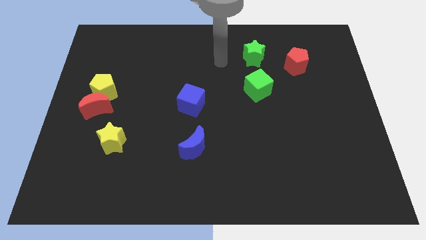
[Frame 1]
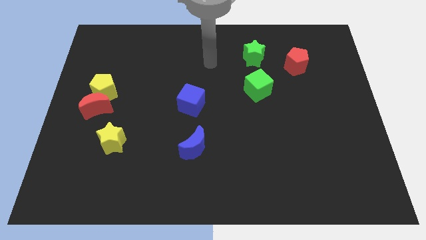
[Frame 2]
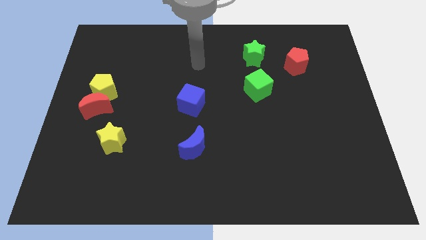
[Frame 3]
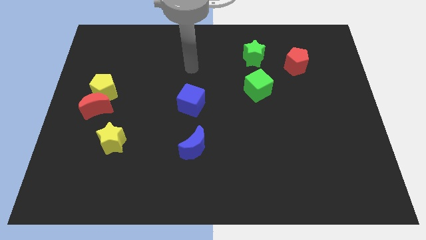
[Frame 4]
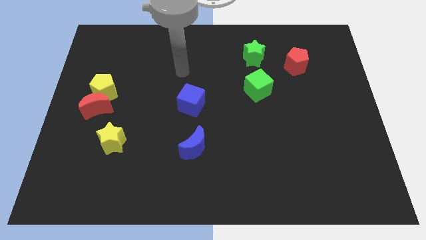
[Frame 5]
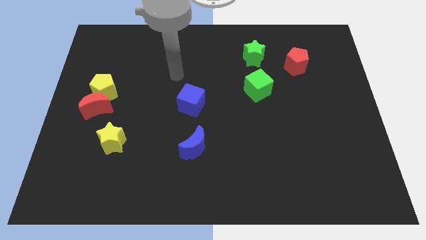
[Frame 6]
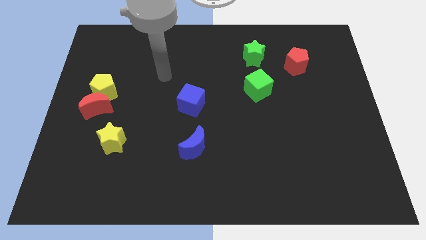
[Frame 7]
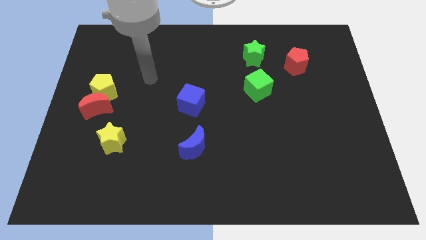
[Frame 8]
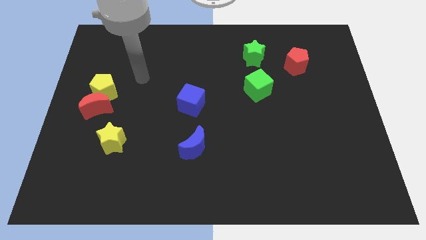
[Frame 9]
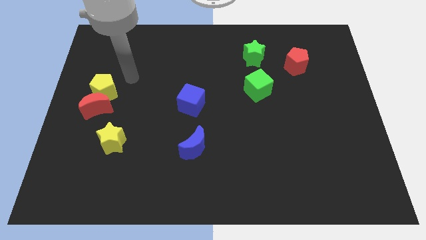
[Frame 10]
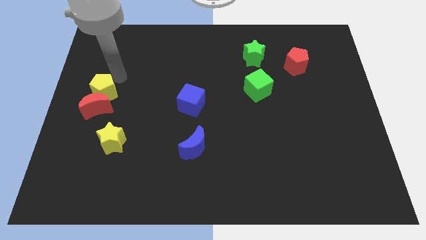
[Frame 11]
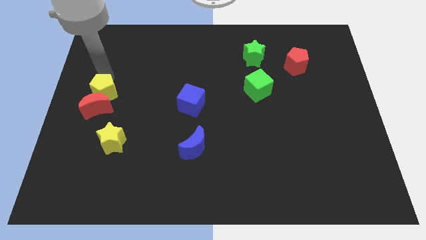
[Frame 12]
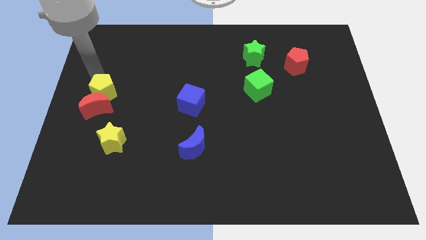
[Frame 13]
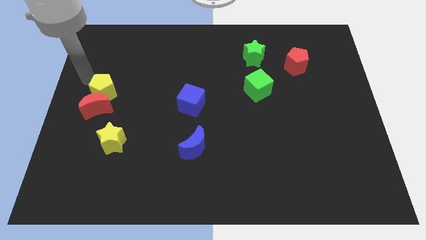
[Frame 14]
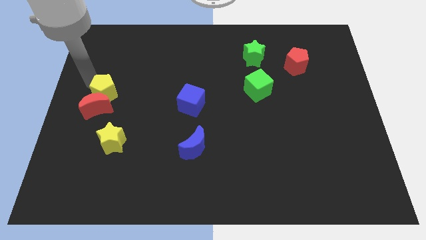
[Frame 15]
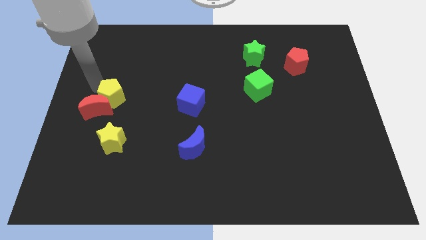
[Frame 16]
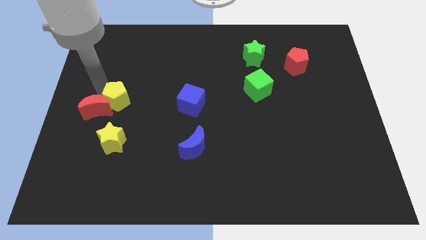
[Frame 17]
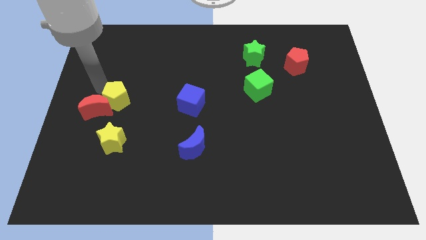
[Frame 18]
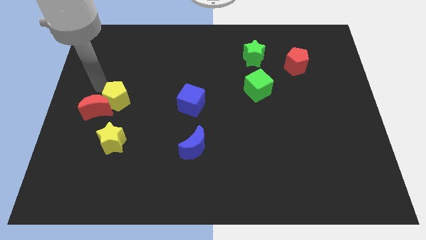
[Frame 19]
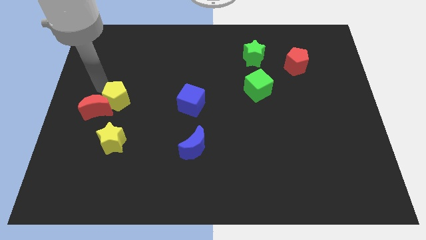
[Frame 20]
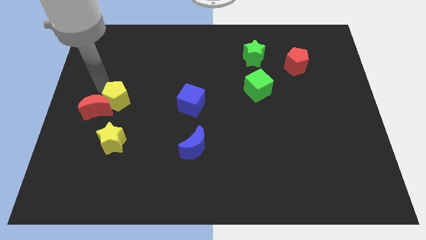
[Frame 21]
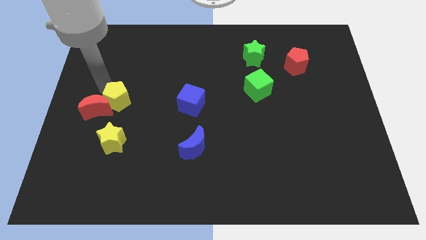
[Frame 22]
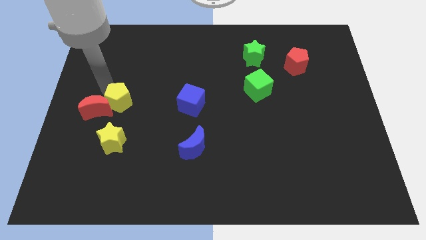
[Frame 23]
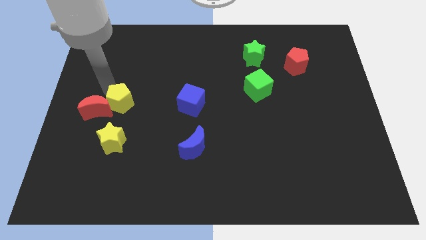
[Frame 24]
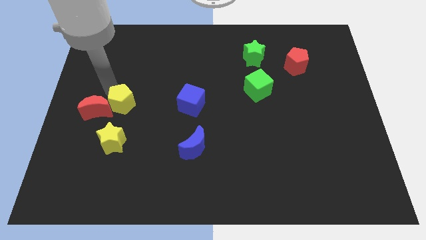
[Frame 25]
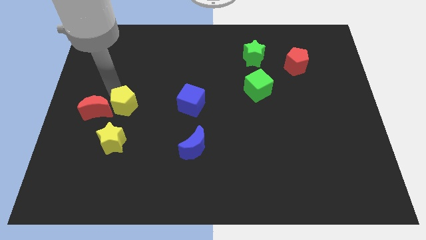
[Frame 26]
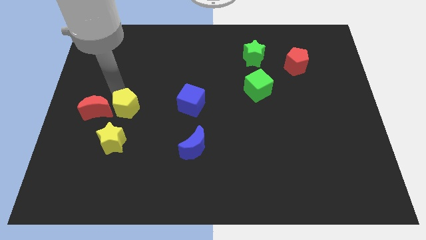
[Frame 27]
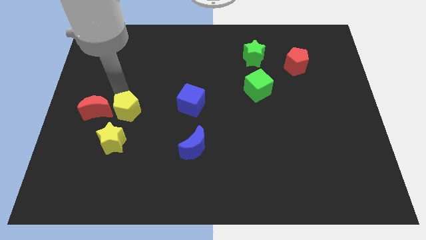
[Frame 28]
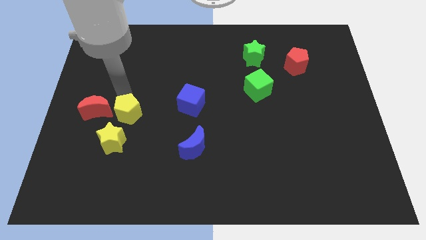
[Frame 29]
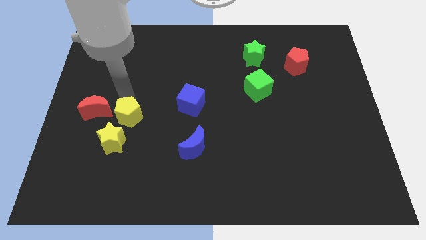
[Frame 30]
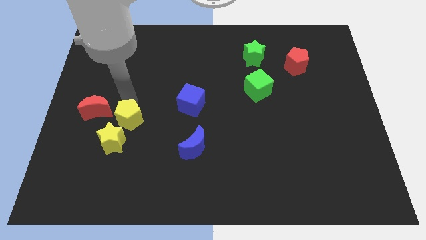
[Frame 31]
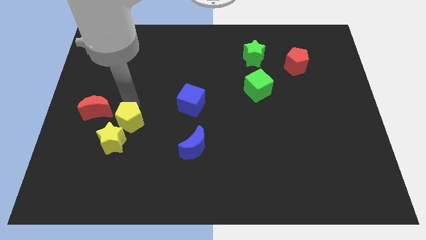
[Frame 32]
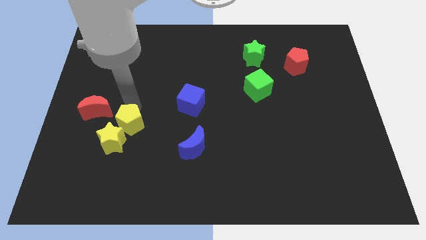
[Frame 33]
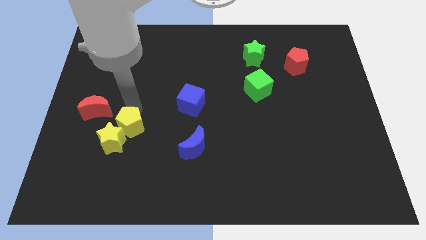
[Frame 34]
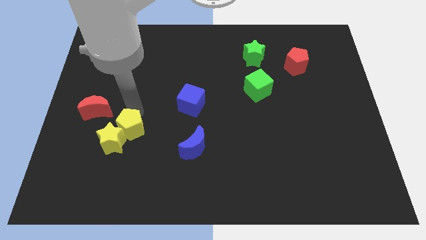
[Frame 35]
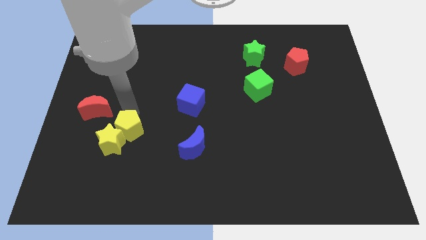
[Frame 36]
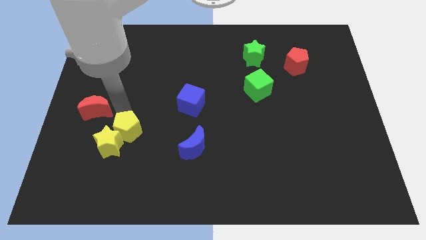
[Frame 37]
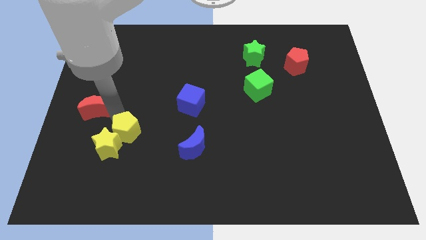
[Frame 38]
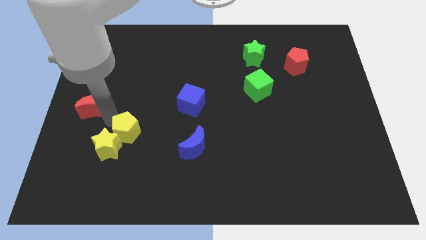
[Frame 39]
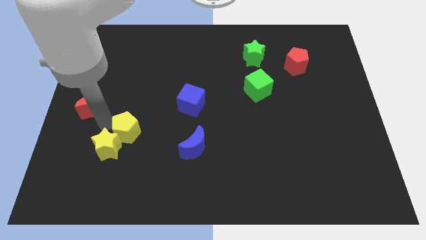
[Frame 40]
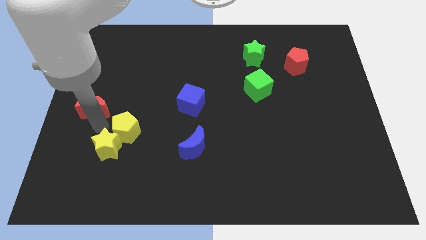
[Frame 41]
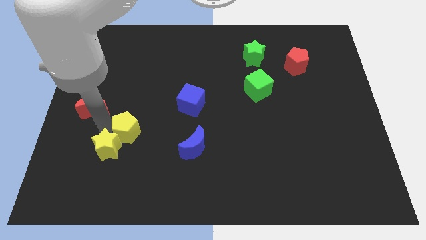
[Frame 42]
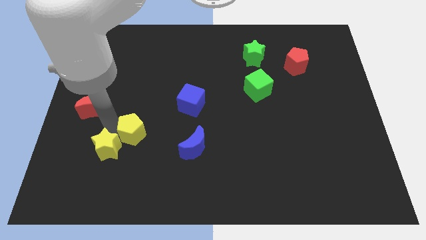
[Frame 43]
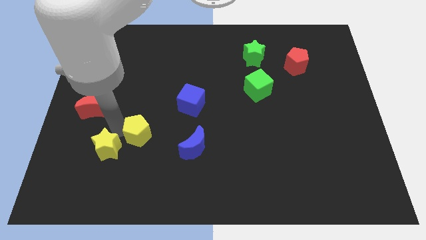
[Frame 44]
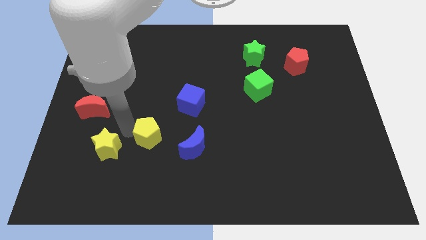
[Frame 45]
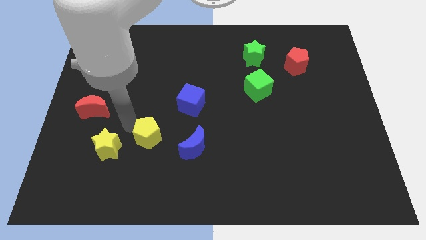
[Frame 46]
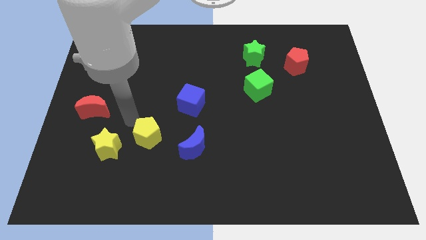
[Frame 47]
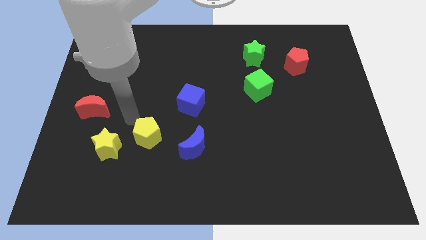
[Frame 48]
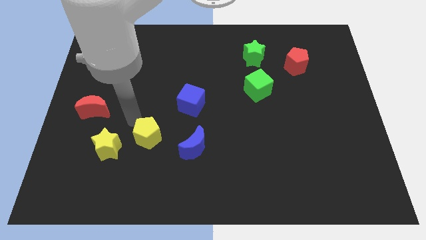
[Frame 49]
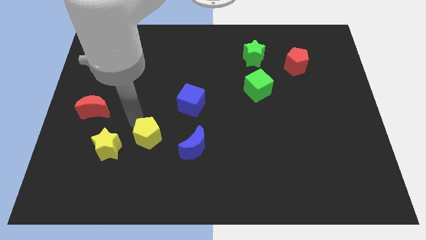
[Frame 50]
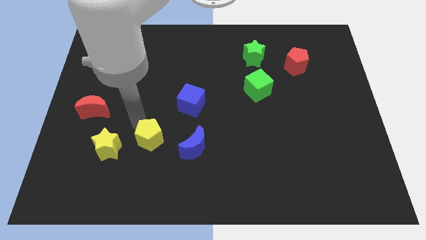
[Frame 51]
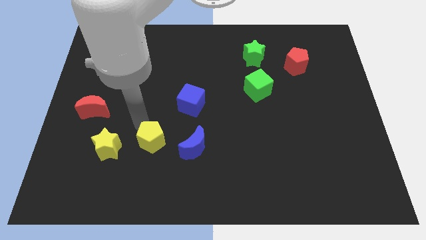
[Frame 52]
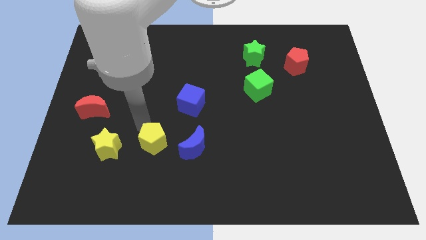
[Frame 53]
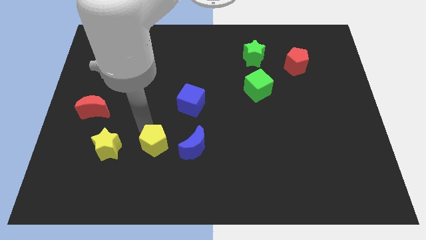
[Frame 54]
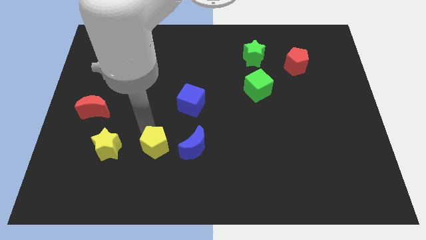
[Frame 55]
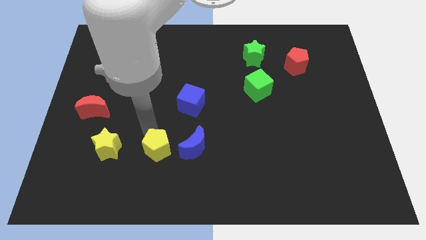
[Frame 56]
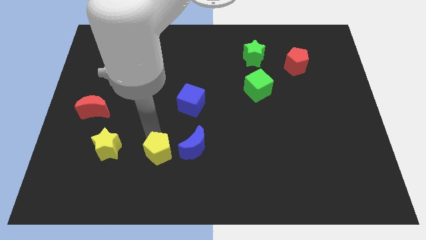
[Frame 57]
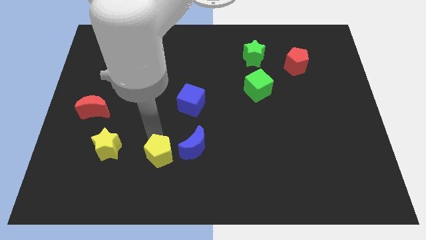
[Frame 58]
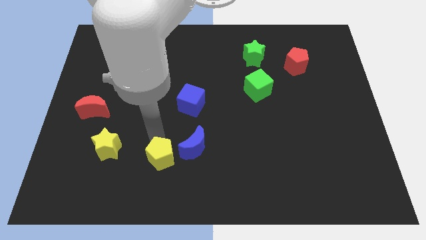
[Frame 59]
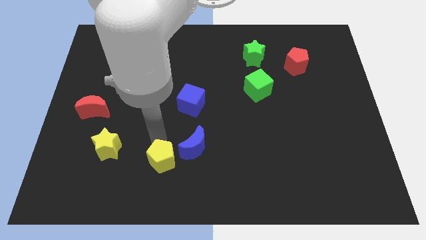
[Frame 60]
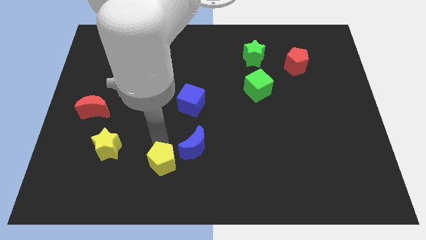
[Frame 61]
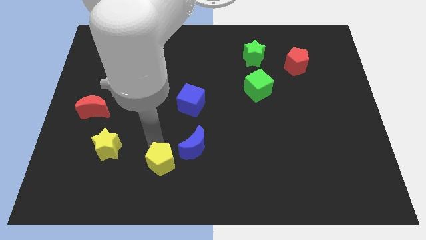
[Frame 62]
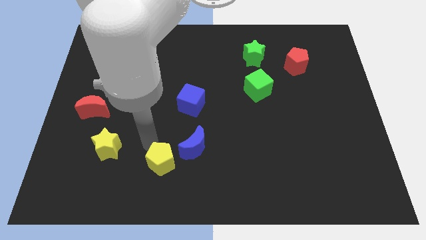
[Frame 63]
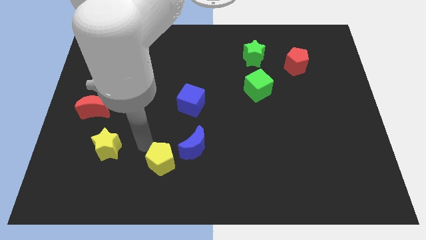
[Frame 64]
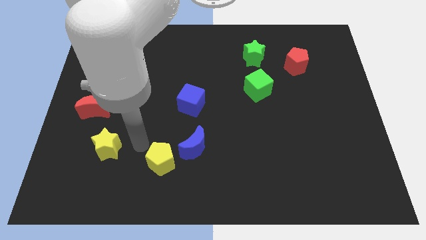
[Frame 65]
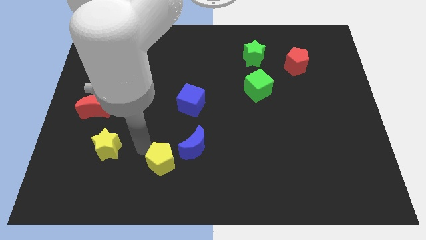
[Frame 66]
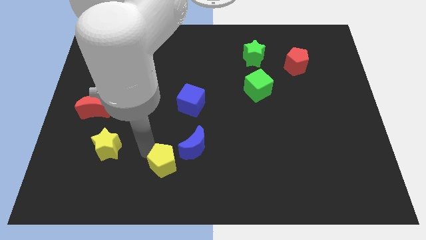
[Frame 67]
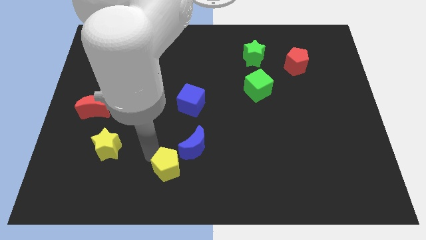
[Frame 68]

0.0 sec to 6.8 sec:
push the yellow pentagon to the bottom

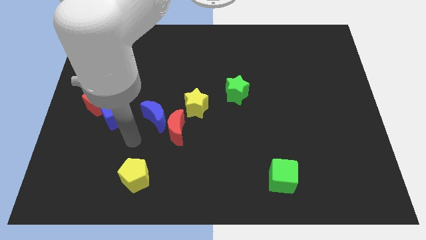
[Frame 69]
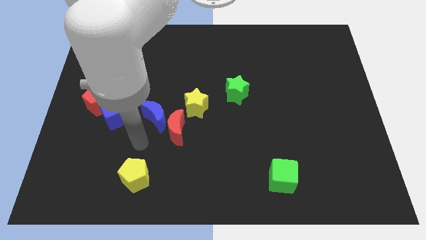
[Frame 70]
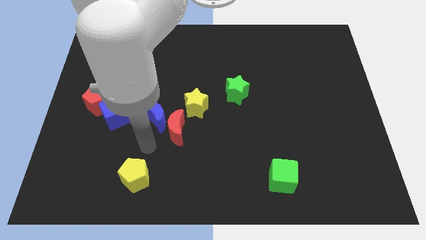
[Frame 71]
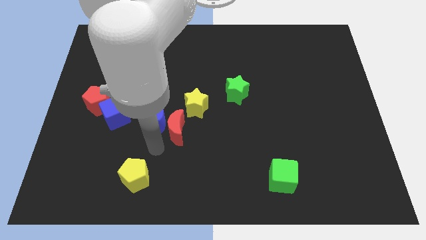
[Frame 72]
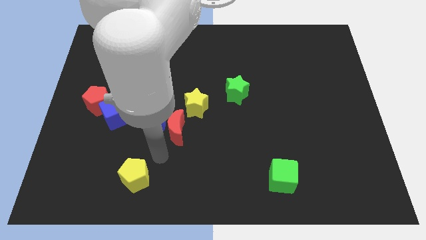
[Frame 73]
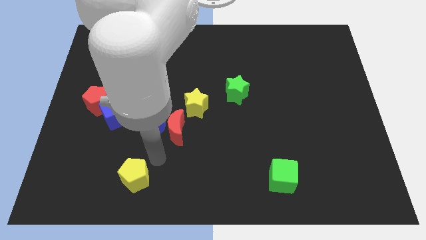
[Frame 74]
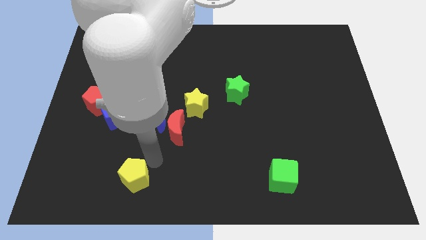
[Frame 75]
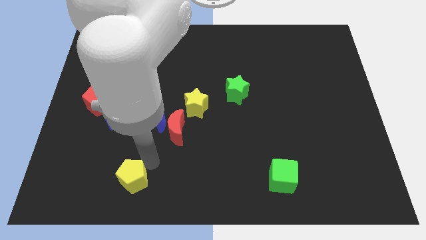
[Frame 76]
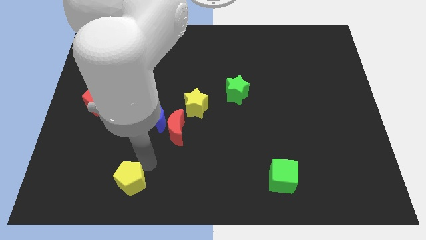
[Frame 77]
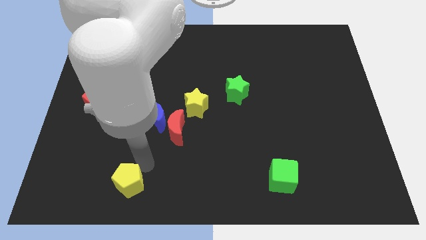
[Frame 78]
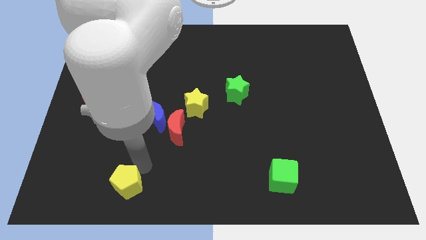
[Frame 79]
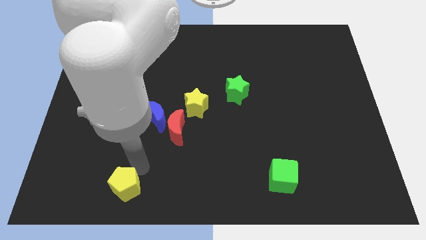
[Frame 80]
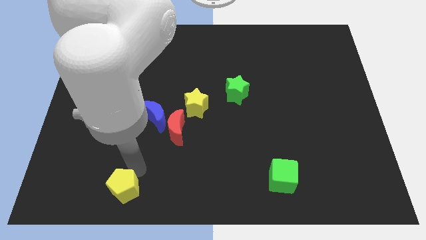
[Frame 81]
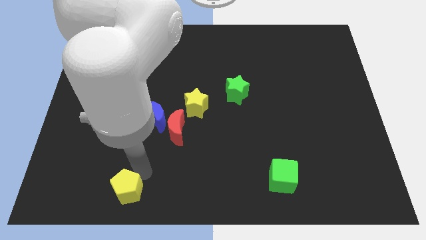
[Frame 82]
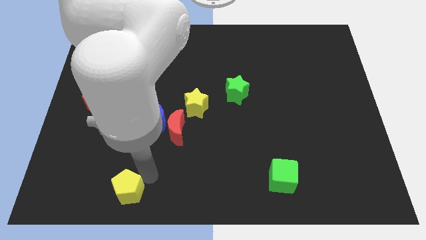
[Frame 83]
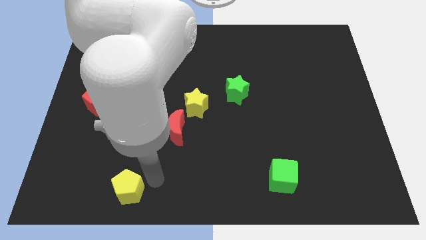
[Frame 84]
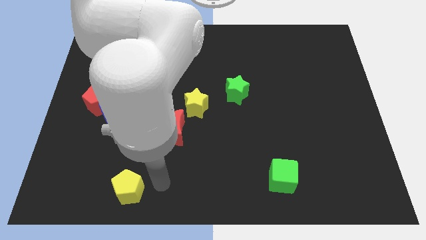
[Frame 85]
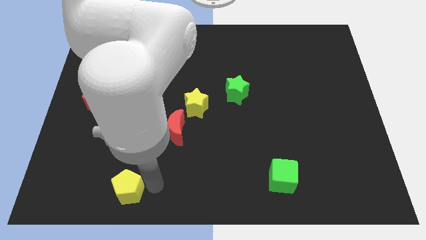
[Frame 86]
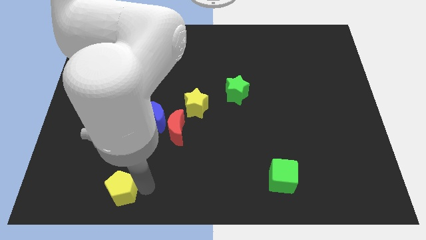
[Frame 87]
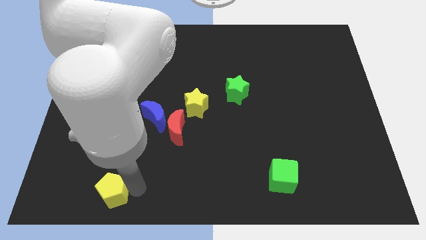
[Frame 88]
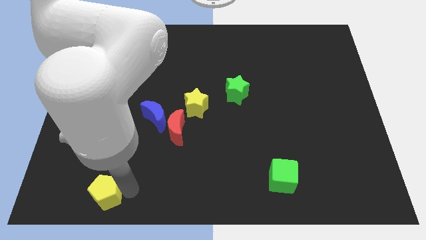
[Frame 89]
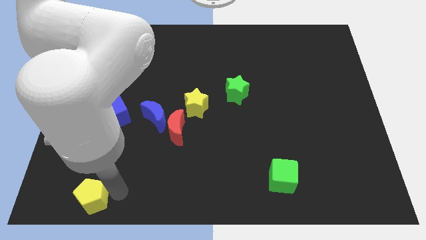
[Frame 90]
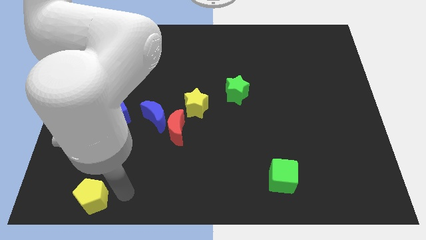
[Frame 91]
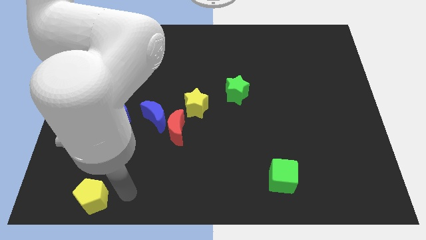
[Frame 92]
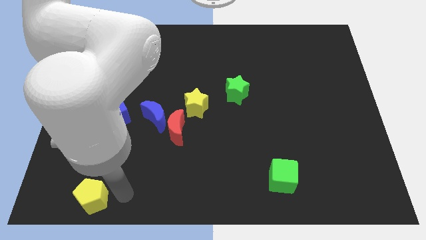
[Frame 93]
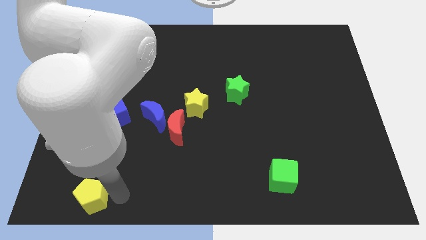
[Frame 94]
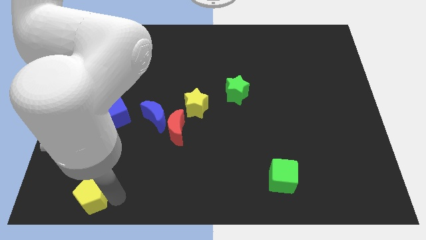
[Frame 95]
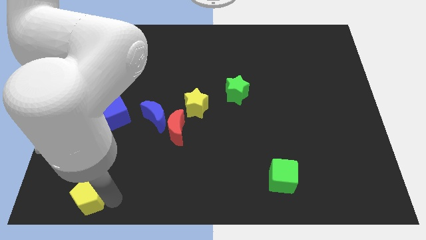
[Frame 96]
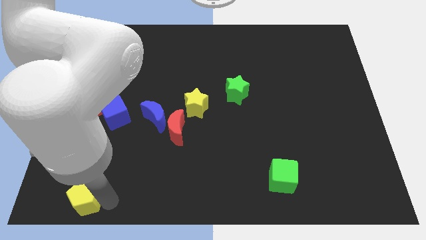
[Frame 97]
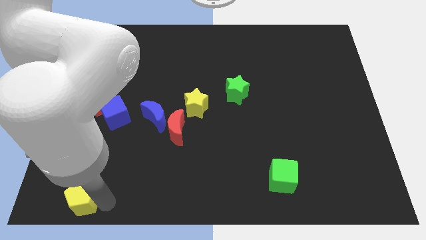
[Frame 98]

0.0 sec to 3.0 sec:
put the yellow pentagon to the bottom left of the board
